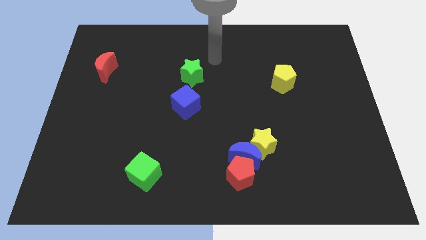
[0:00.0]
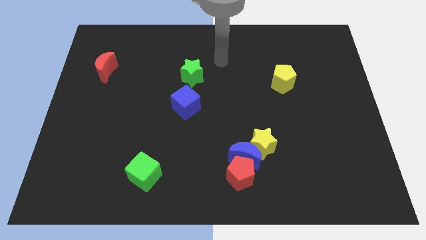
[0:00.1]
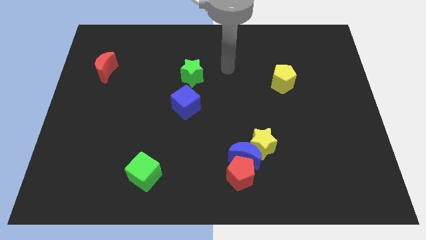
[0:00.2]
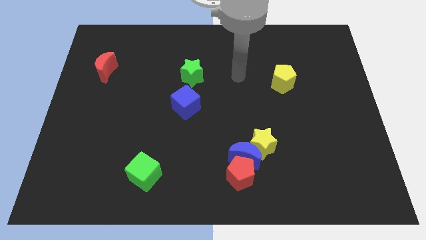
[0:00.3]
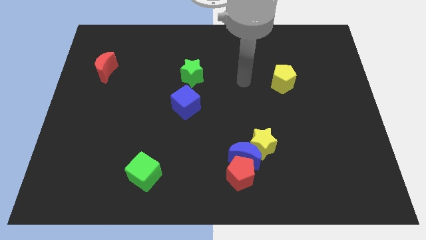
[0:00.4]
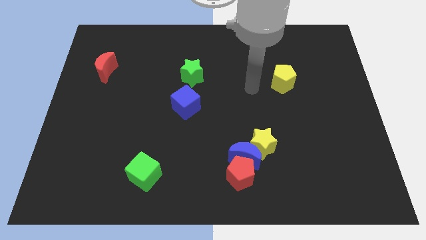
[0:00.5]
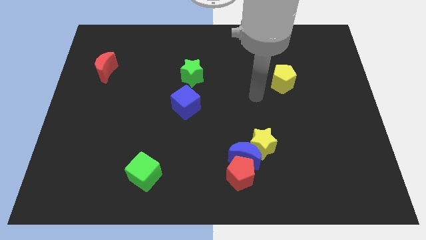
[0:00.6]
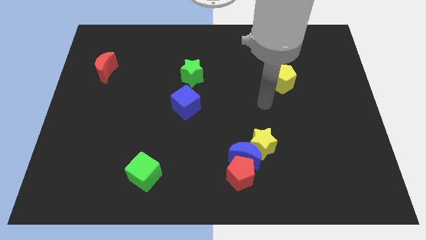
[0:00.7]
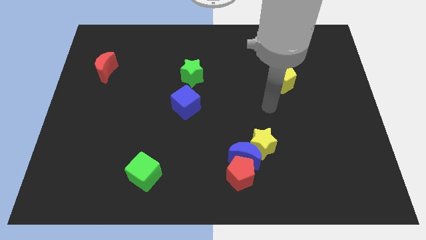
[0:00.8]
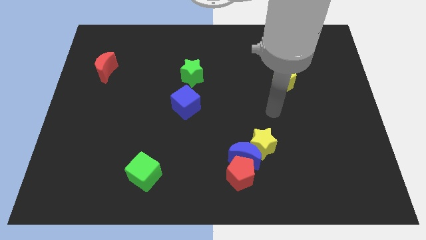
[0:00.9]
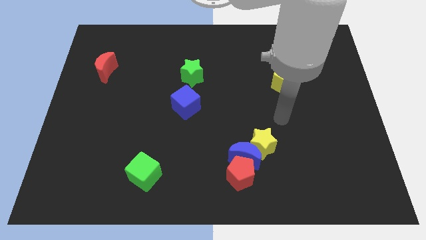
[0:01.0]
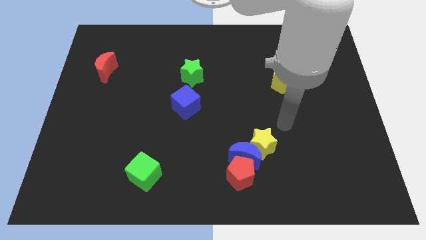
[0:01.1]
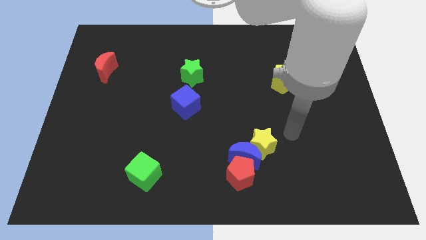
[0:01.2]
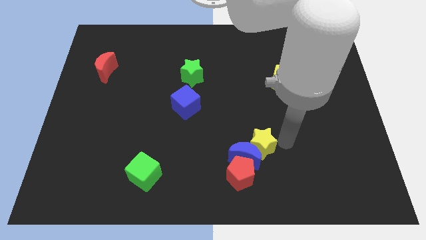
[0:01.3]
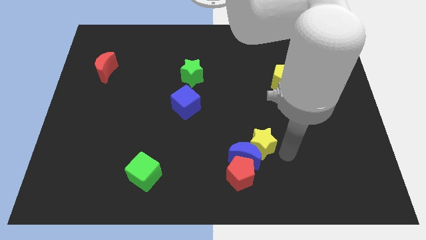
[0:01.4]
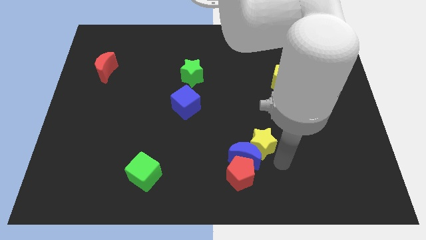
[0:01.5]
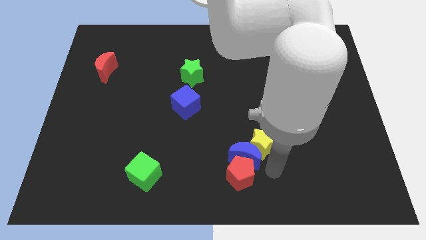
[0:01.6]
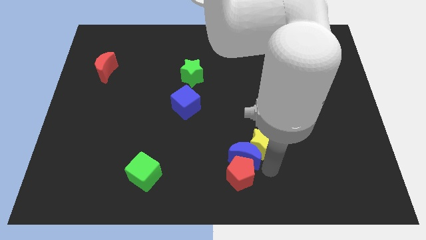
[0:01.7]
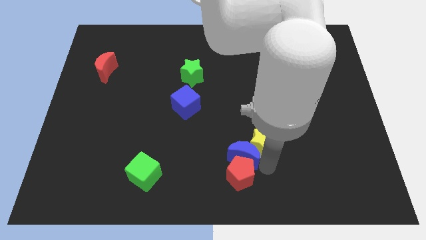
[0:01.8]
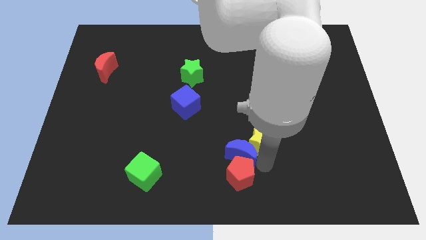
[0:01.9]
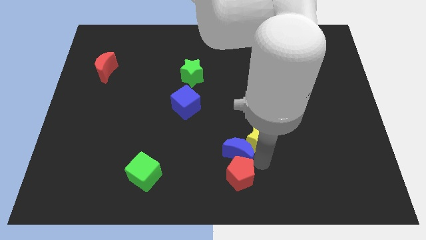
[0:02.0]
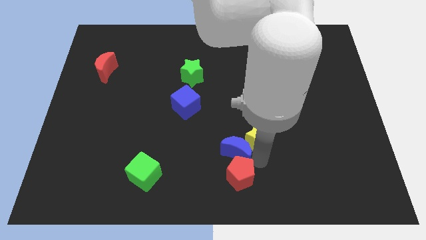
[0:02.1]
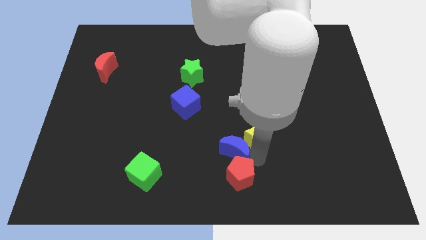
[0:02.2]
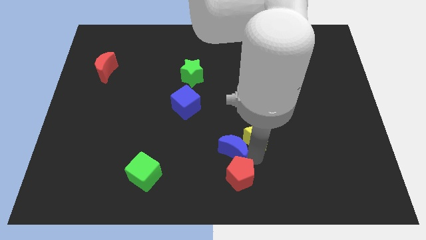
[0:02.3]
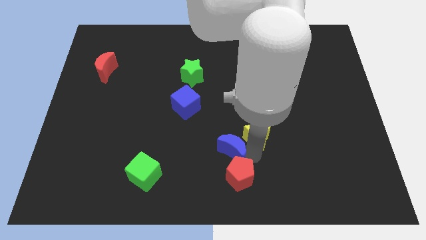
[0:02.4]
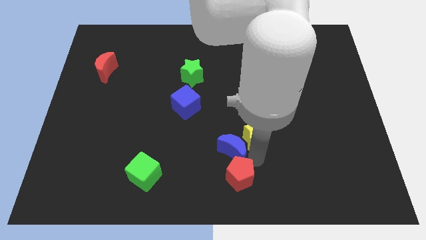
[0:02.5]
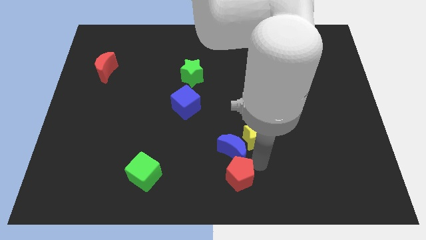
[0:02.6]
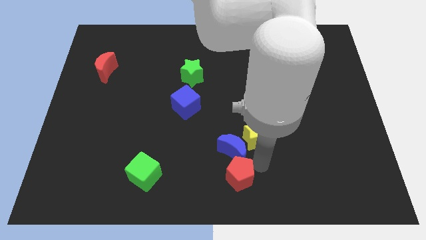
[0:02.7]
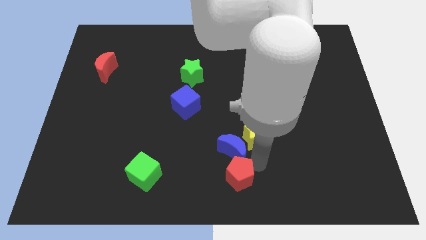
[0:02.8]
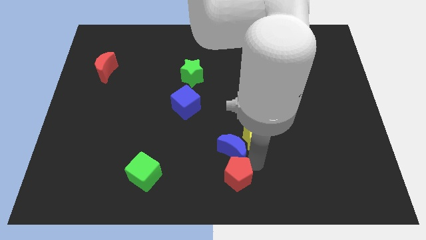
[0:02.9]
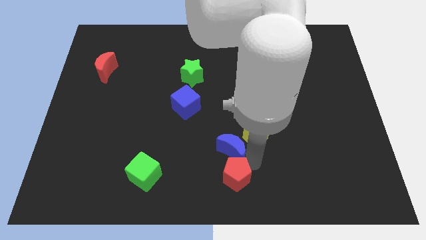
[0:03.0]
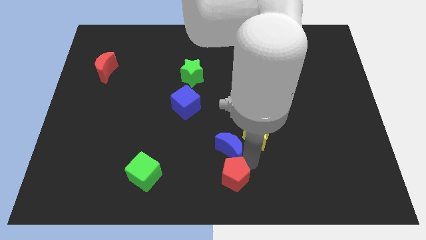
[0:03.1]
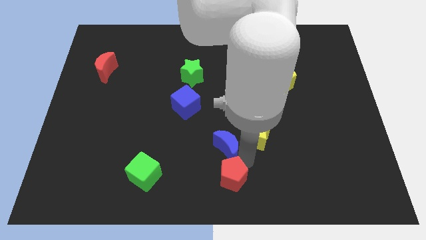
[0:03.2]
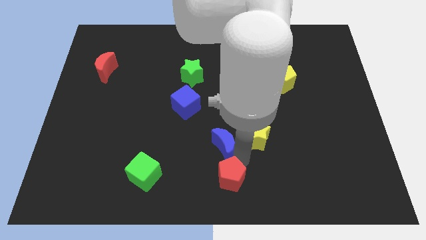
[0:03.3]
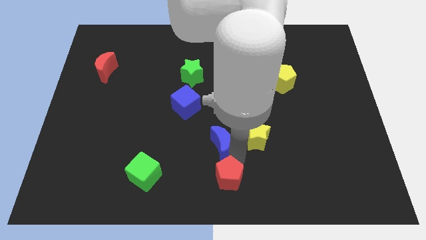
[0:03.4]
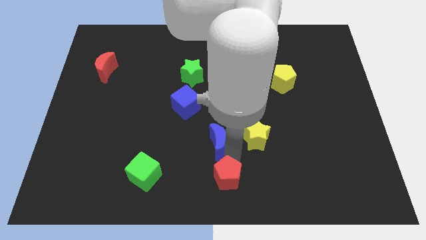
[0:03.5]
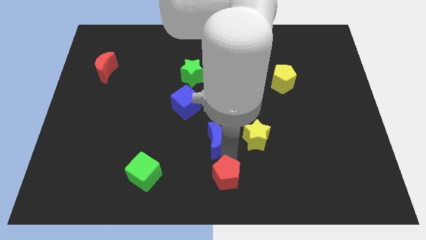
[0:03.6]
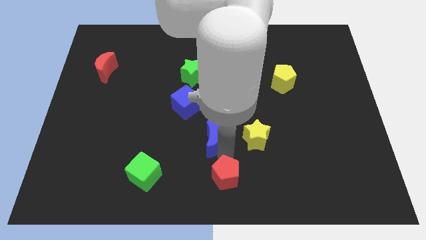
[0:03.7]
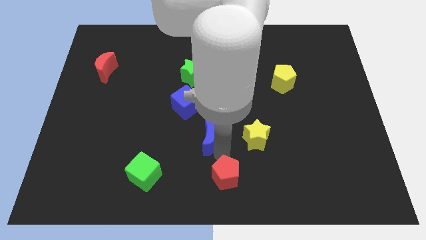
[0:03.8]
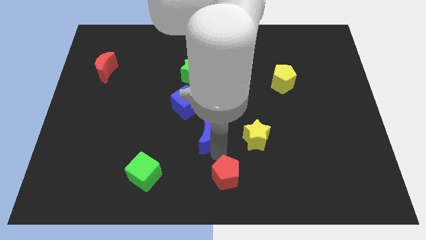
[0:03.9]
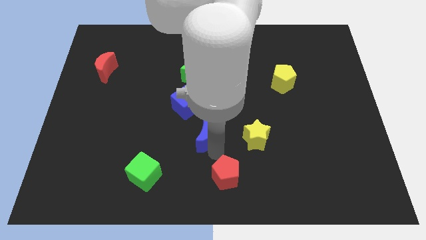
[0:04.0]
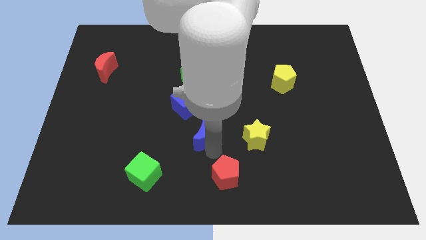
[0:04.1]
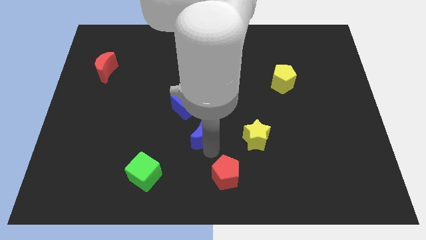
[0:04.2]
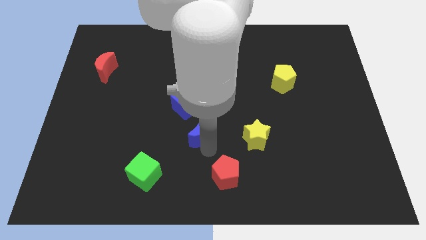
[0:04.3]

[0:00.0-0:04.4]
separate the blue moon from the red pentagon and yellow star

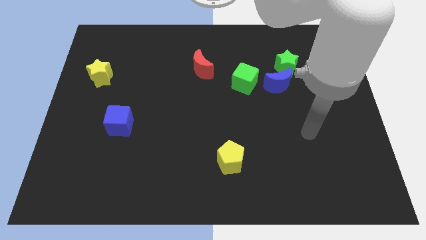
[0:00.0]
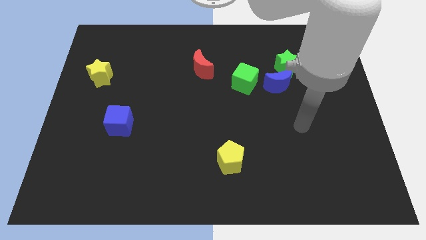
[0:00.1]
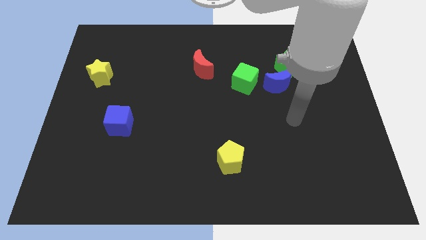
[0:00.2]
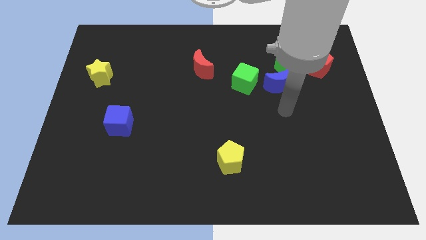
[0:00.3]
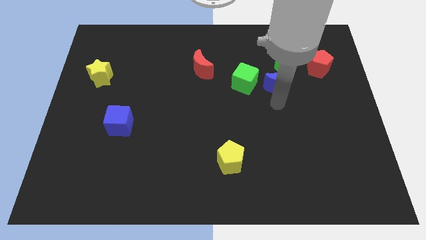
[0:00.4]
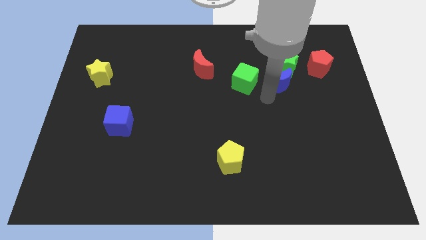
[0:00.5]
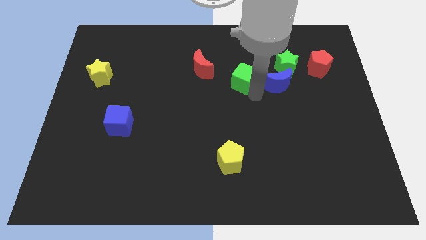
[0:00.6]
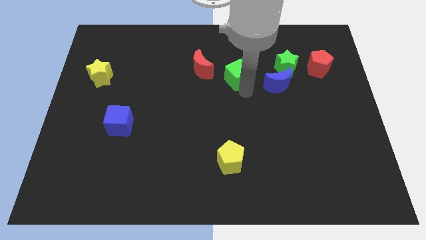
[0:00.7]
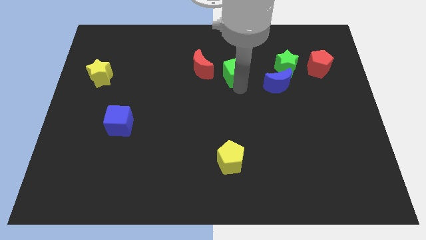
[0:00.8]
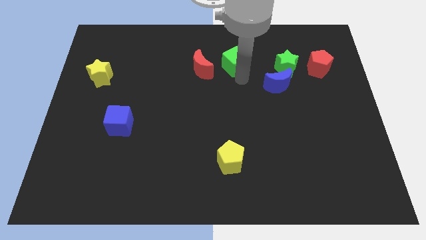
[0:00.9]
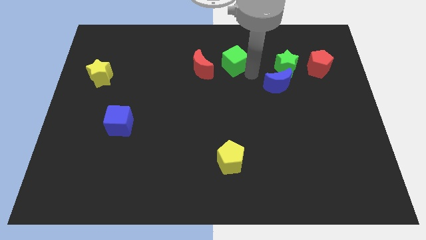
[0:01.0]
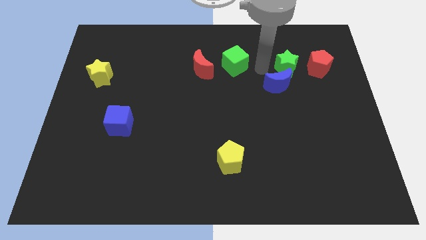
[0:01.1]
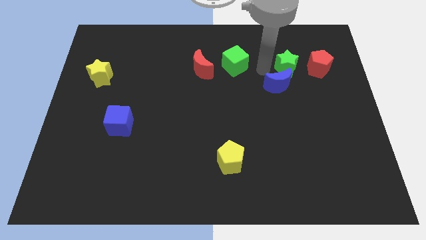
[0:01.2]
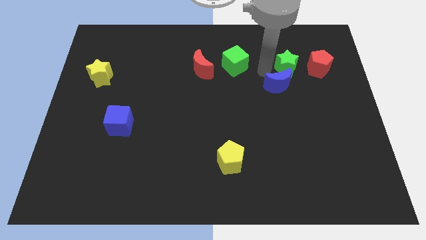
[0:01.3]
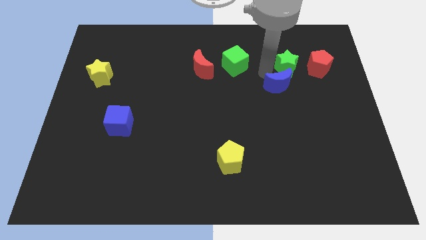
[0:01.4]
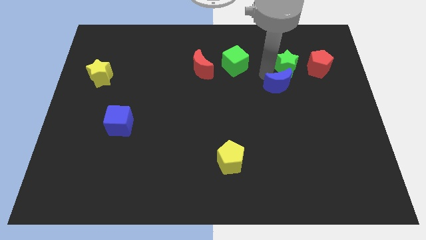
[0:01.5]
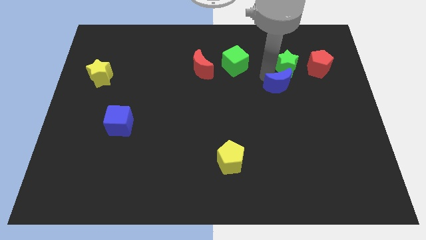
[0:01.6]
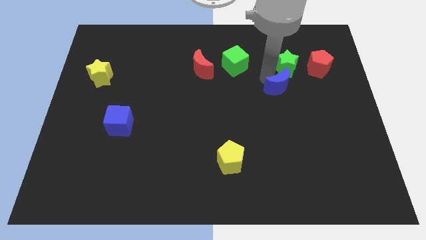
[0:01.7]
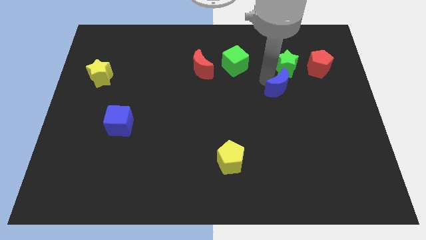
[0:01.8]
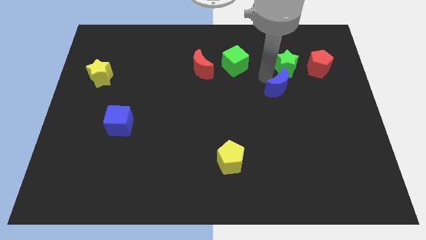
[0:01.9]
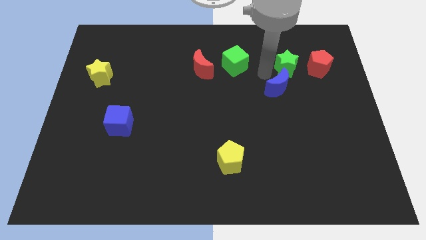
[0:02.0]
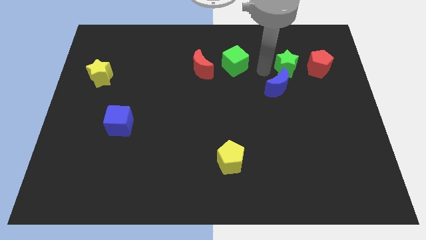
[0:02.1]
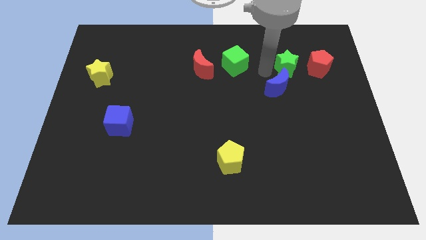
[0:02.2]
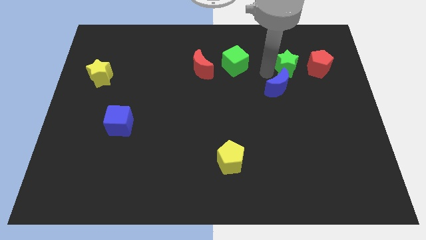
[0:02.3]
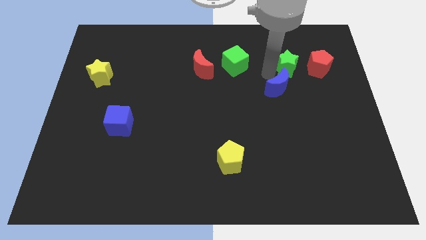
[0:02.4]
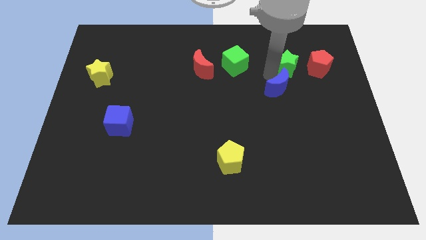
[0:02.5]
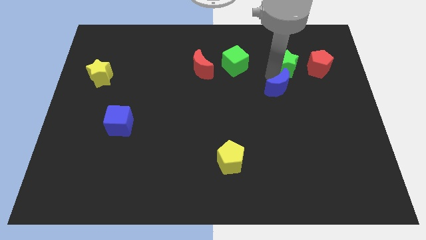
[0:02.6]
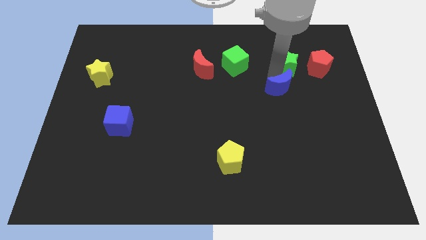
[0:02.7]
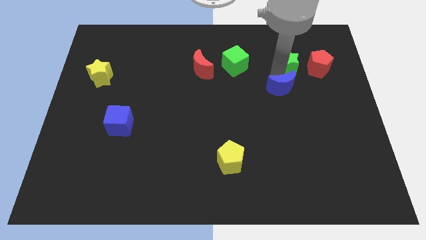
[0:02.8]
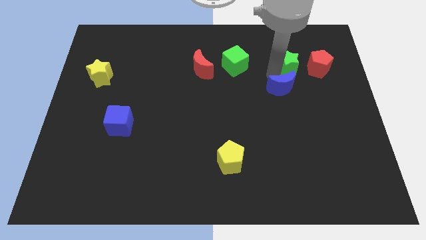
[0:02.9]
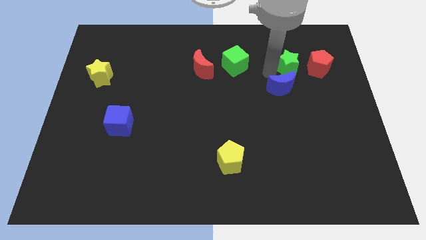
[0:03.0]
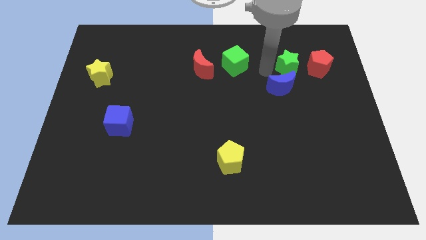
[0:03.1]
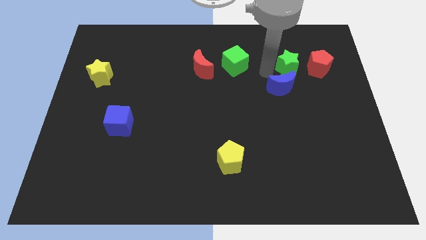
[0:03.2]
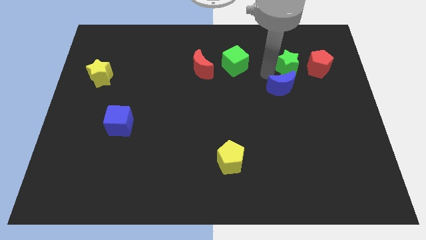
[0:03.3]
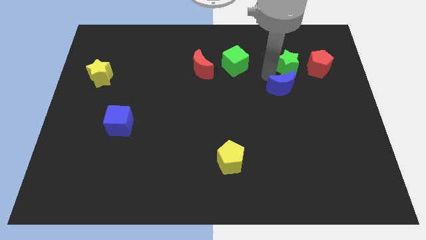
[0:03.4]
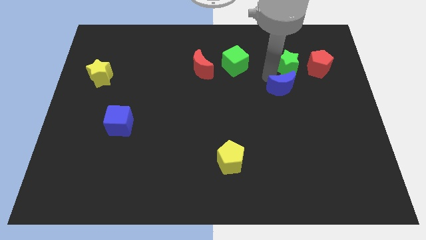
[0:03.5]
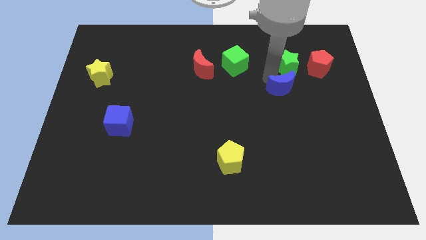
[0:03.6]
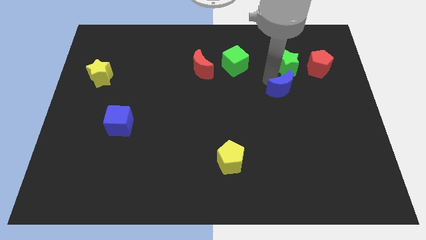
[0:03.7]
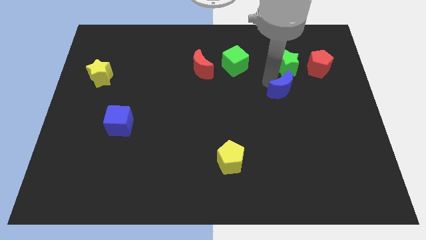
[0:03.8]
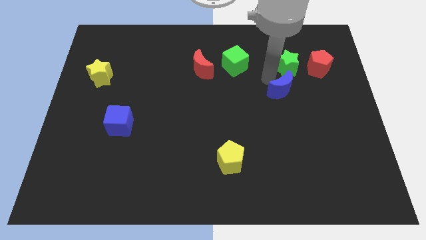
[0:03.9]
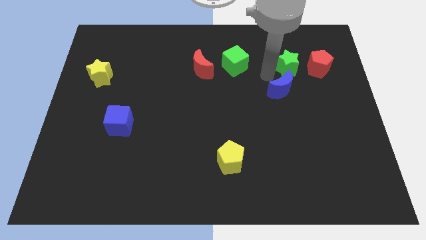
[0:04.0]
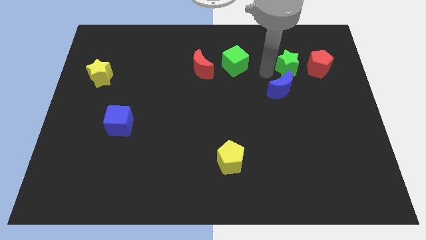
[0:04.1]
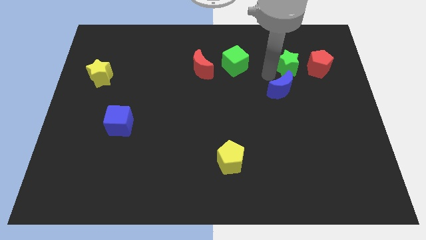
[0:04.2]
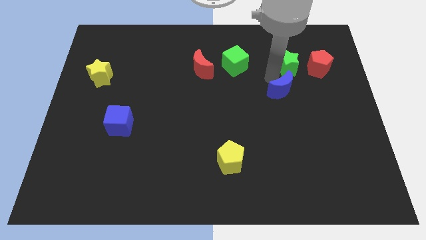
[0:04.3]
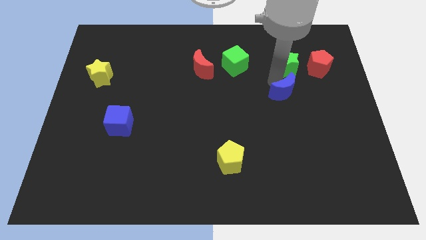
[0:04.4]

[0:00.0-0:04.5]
separate the blue moon from the green star and green cube

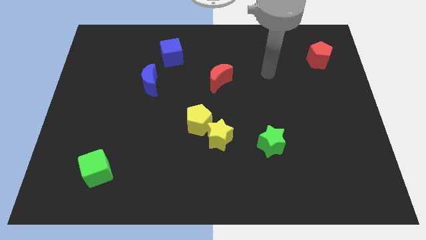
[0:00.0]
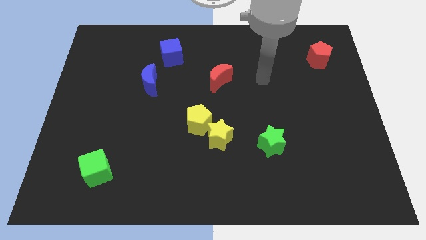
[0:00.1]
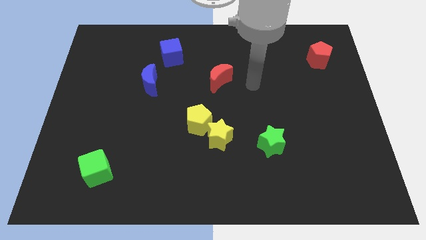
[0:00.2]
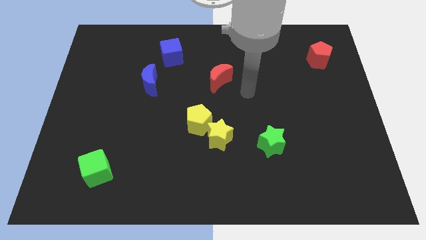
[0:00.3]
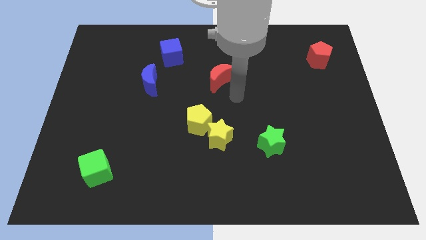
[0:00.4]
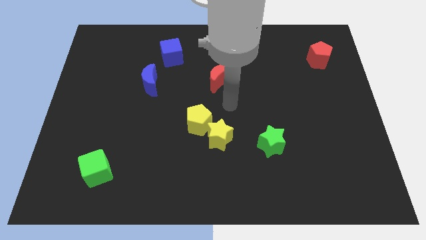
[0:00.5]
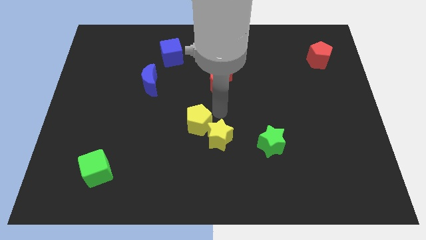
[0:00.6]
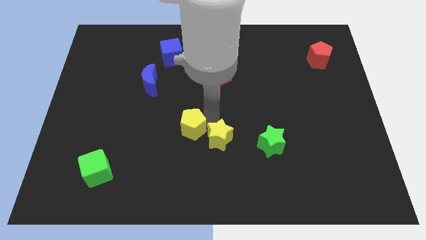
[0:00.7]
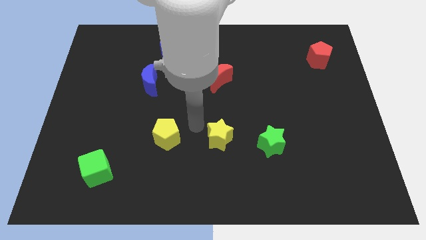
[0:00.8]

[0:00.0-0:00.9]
pull the yellow star apart from the yellow pentagon
